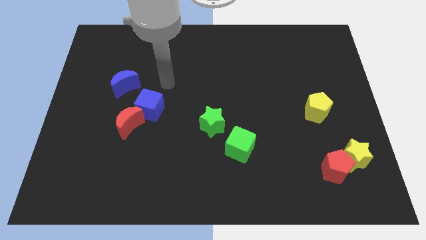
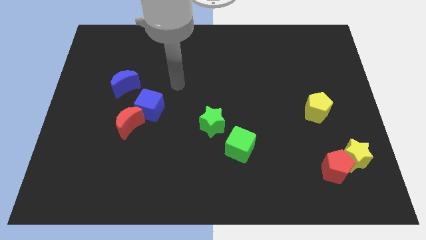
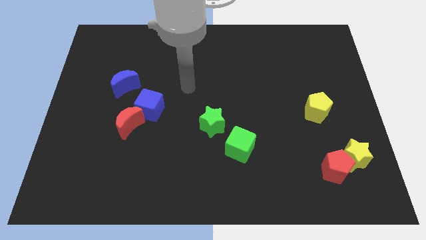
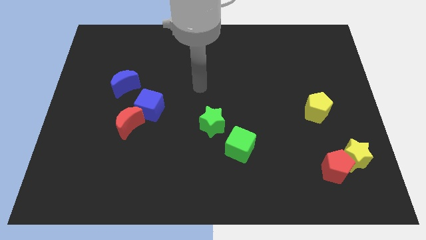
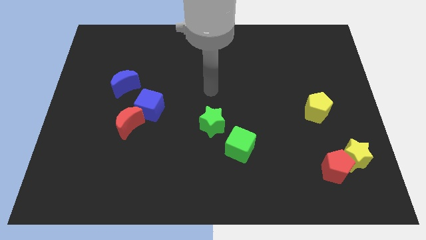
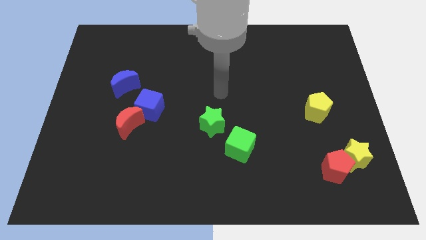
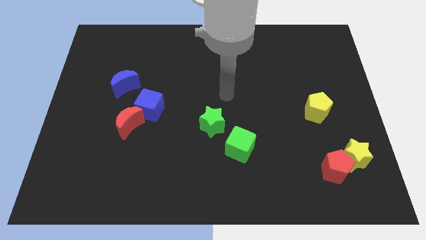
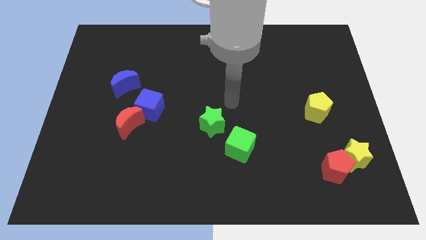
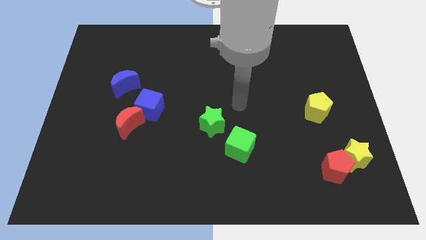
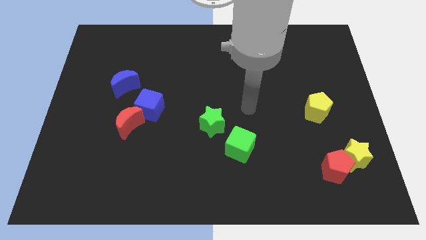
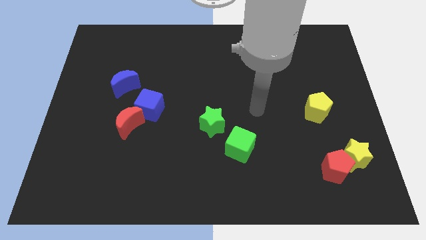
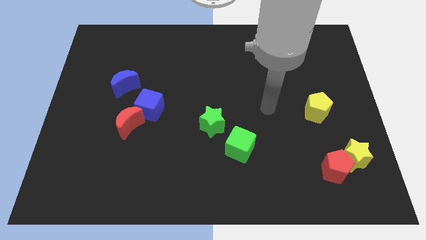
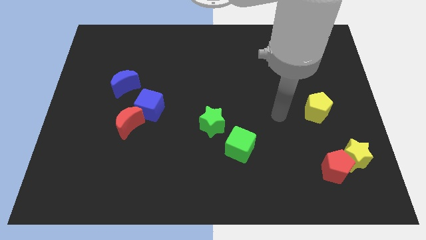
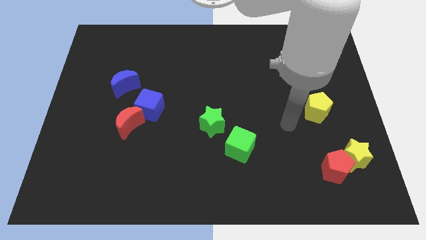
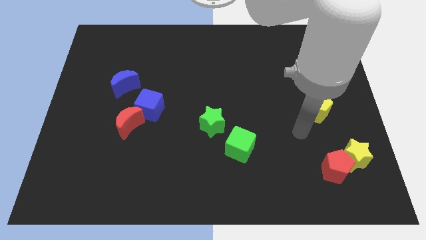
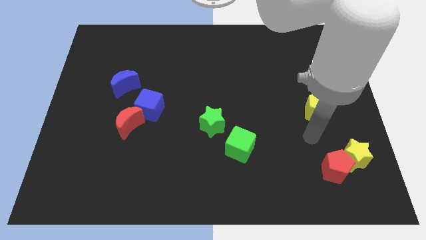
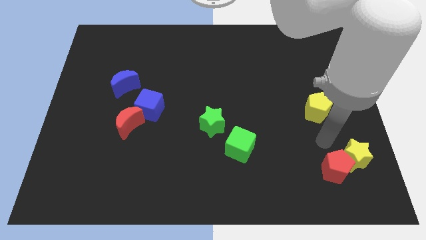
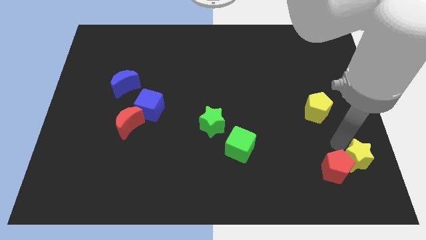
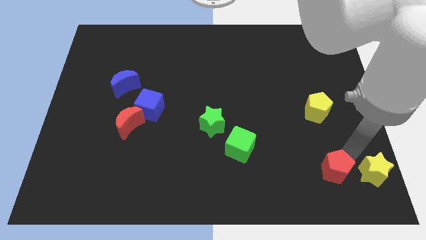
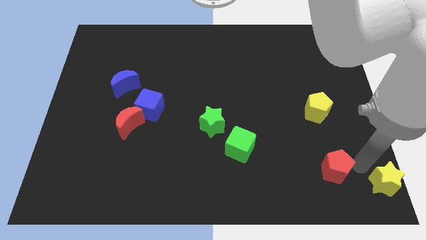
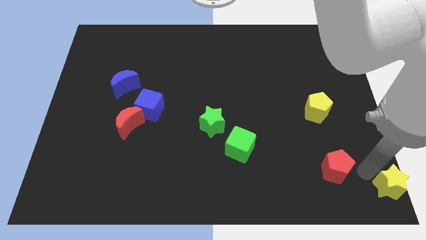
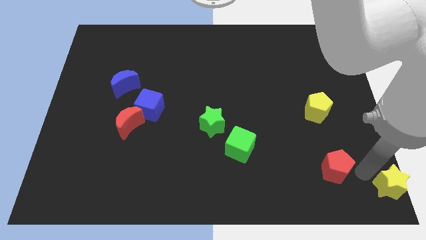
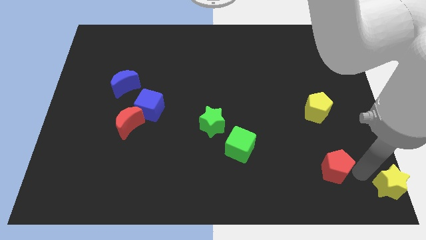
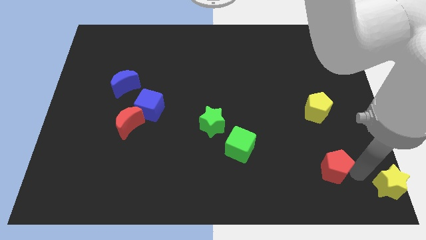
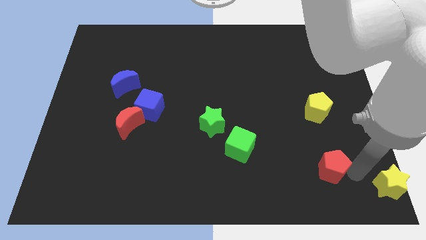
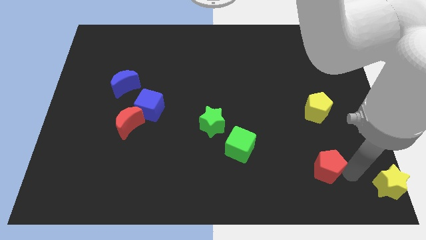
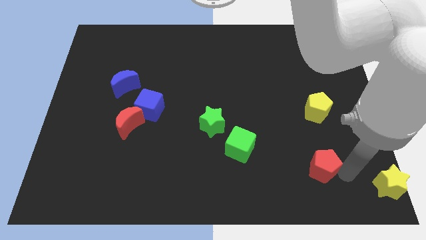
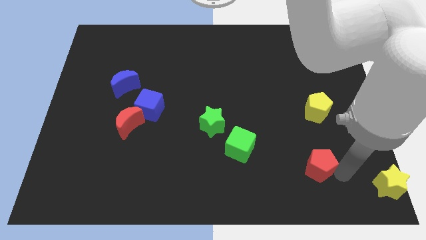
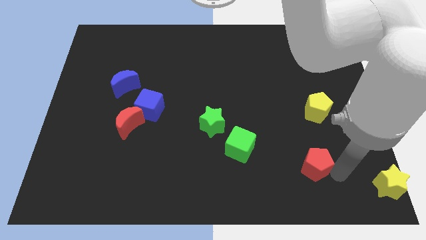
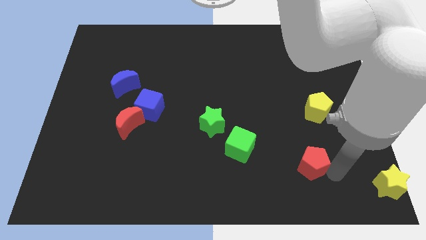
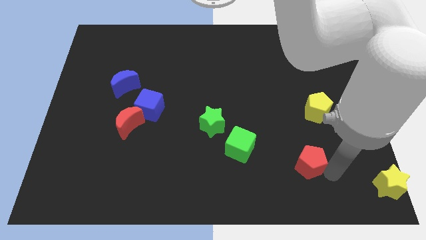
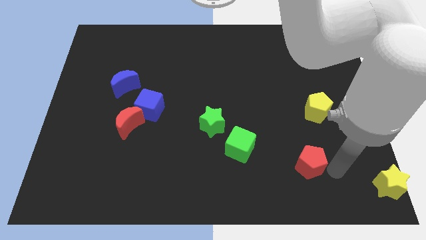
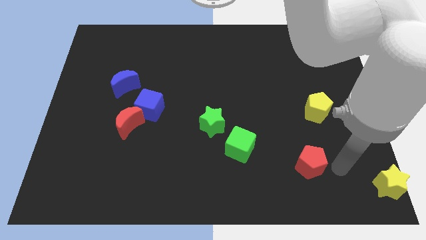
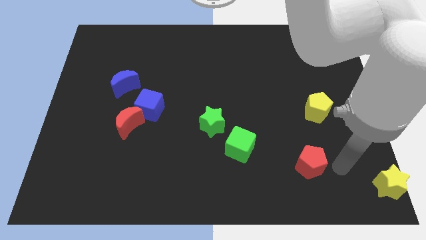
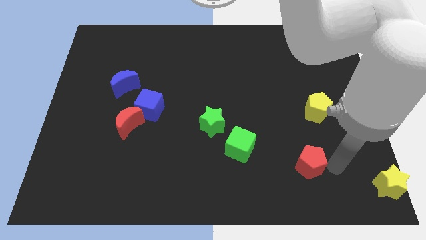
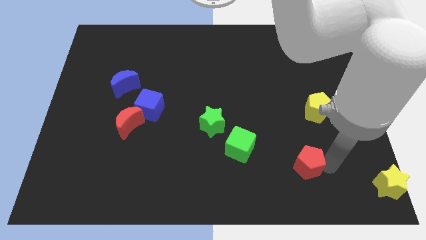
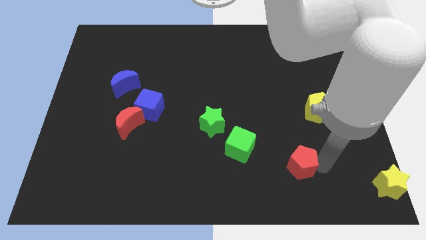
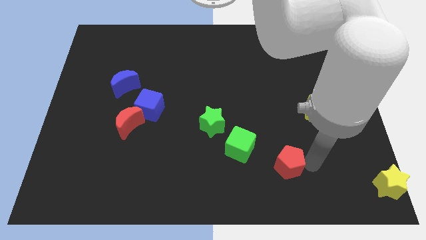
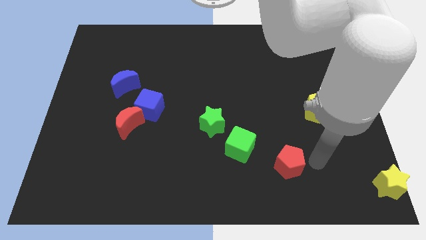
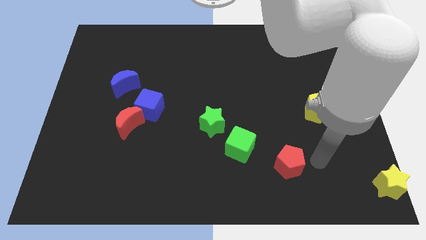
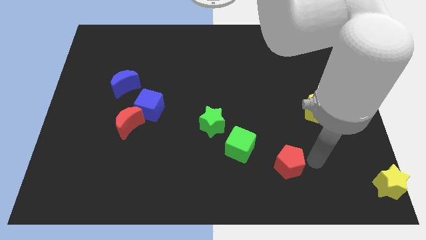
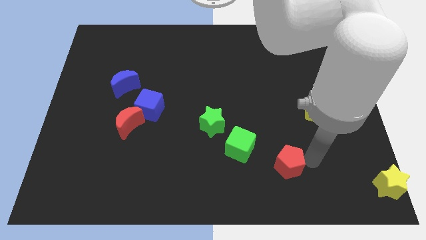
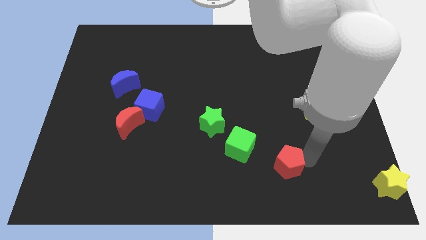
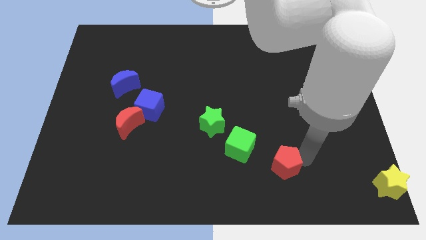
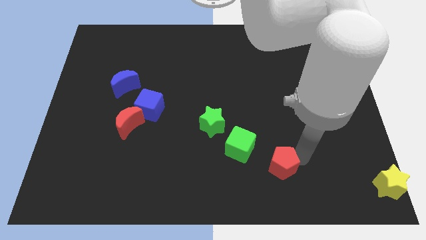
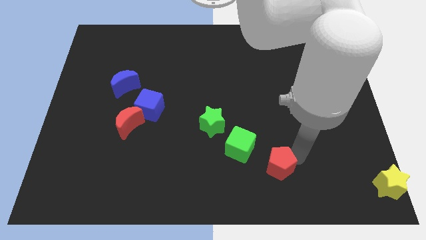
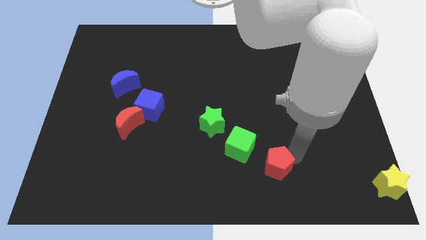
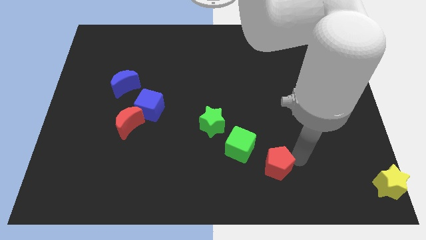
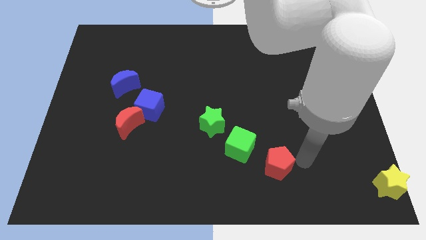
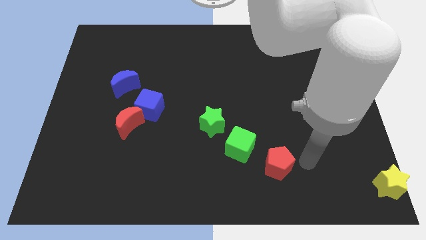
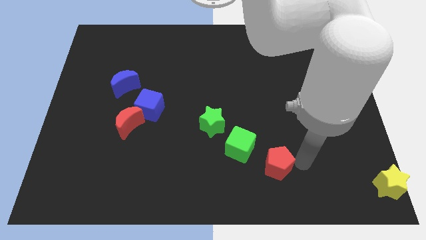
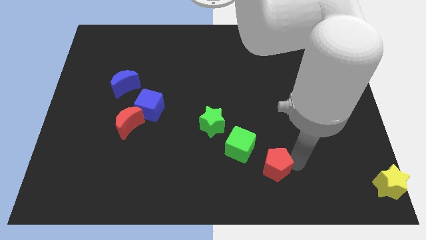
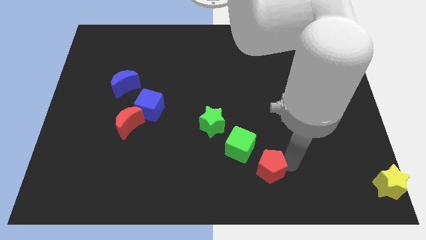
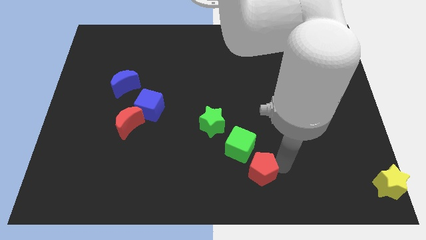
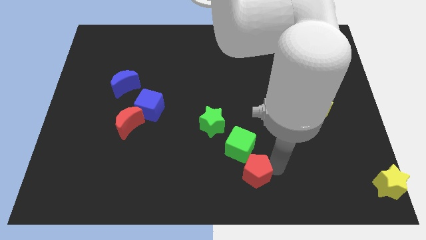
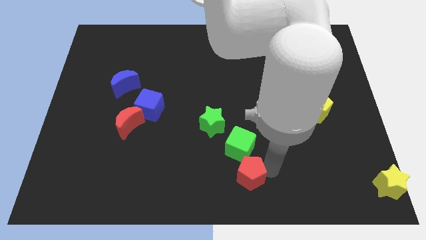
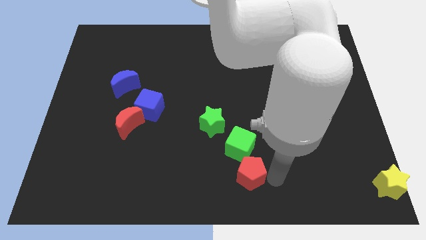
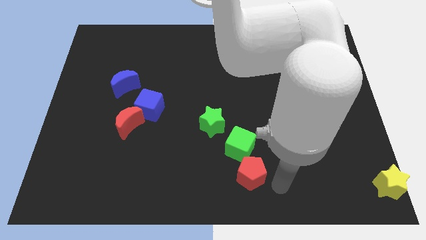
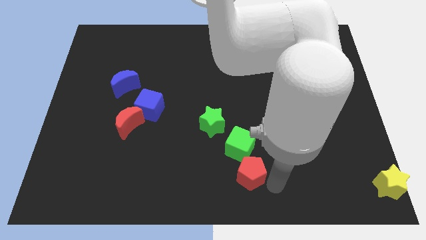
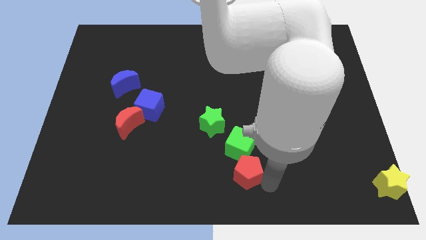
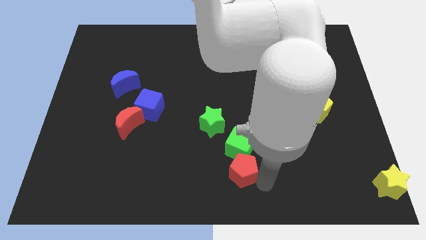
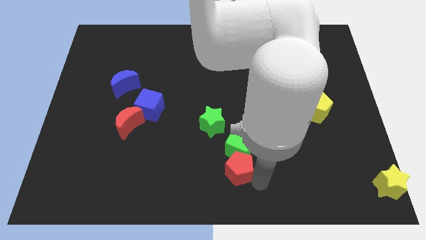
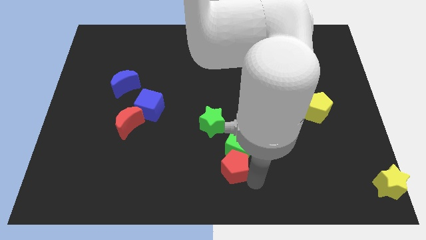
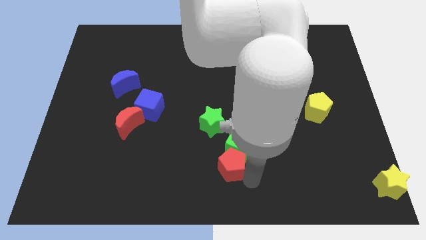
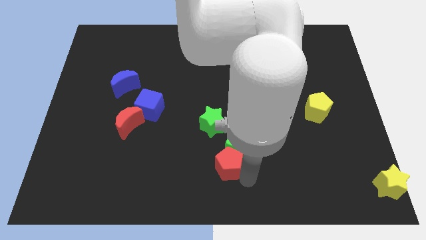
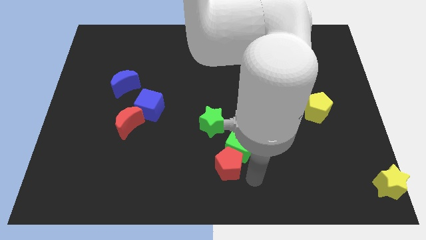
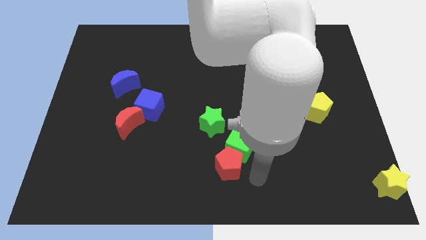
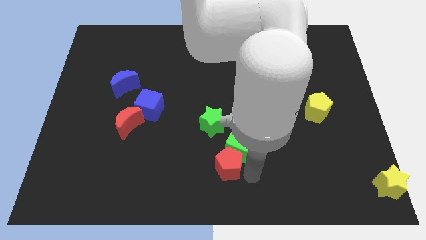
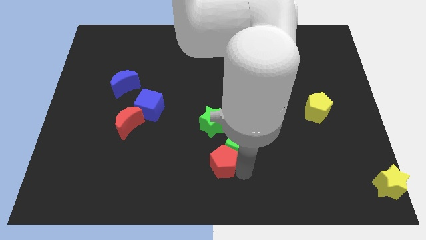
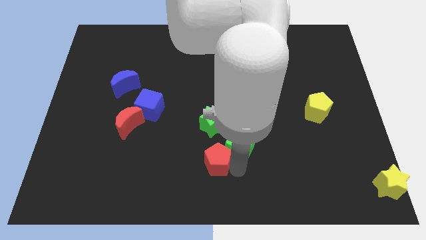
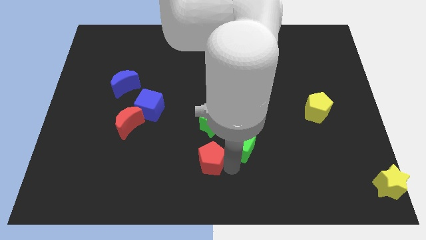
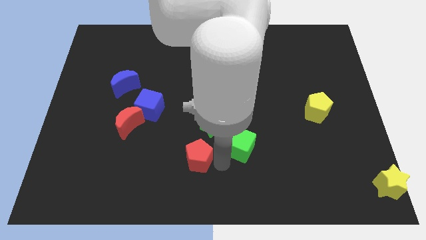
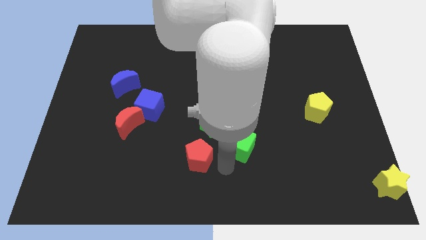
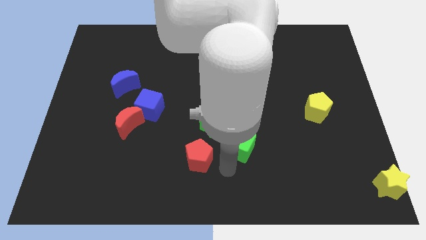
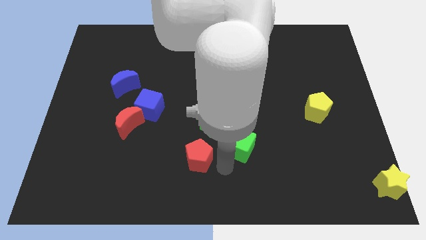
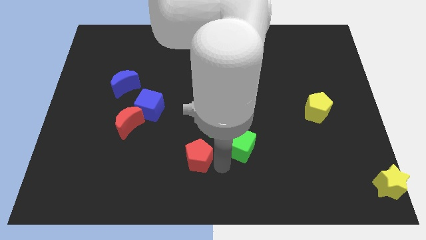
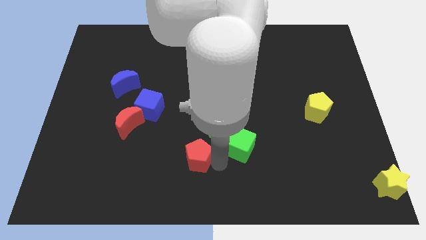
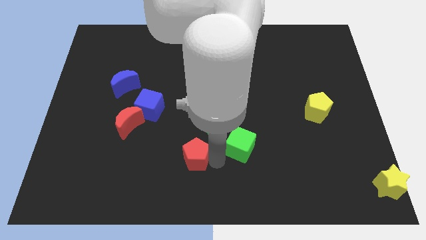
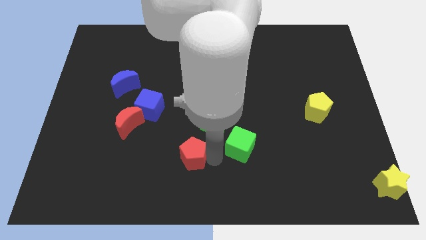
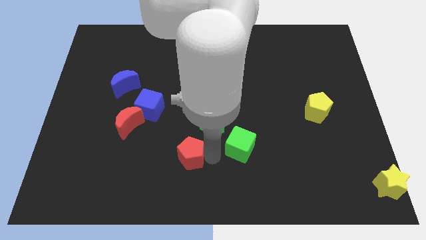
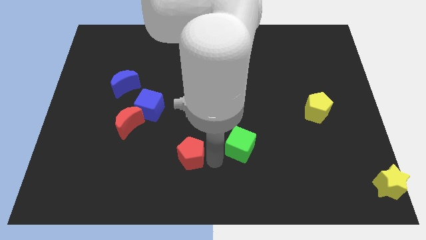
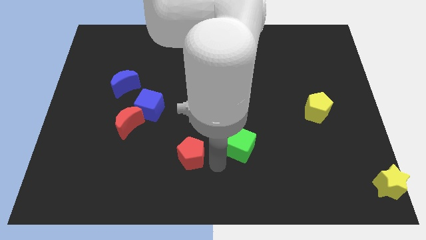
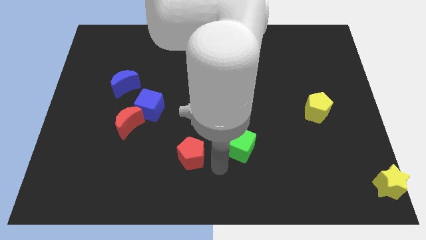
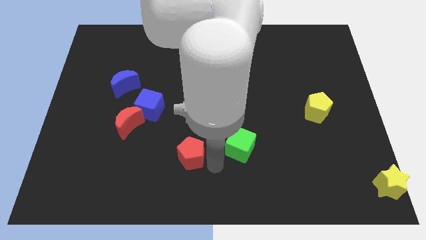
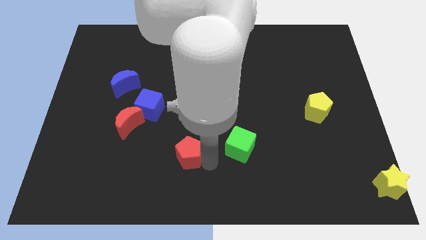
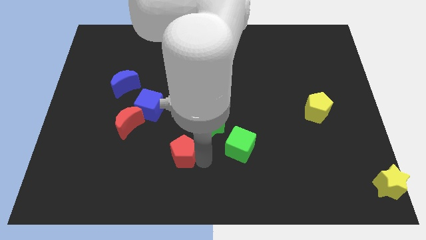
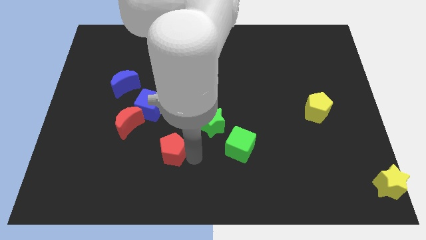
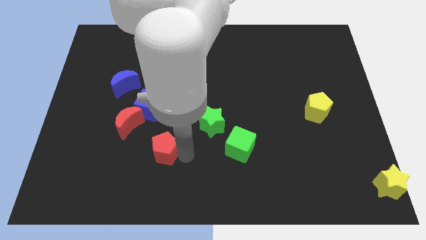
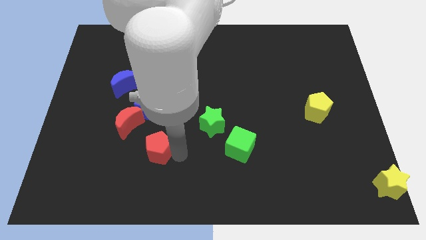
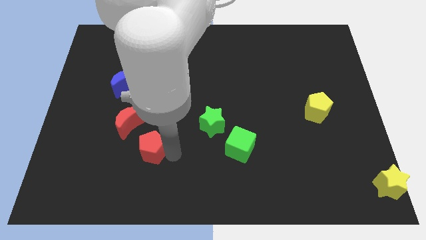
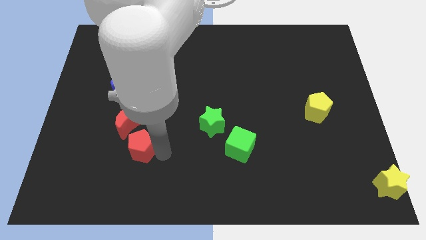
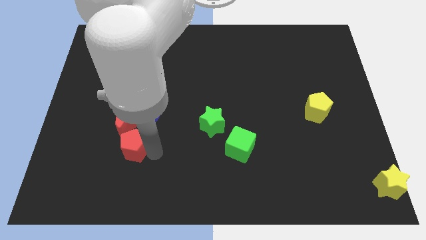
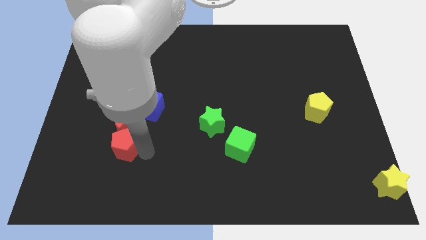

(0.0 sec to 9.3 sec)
put the red pentagon close to the red moon
